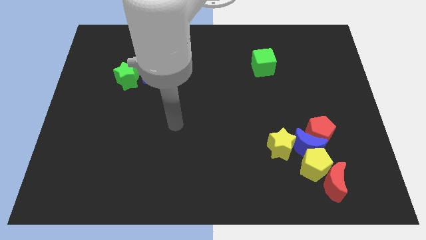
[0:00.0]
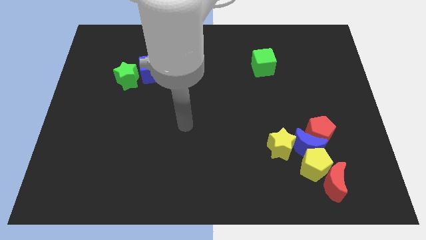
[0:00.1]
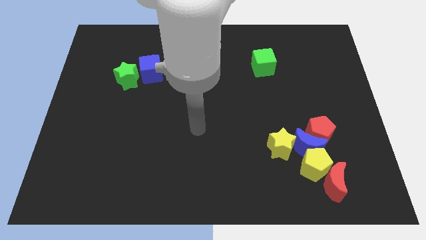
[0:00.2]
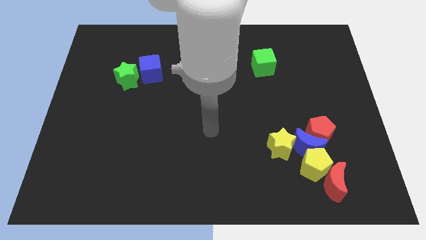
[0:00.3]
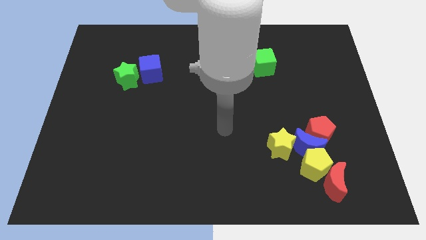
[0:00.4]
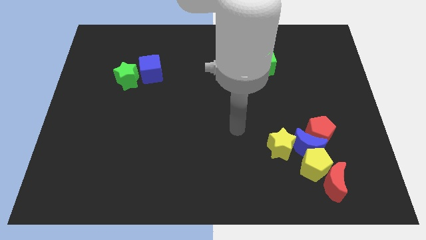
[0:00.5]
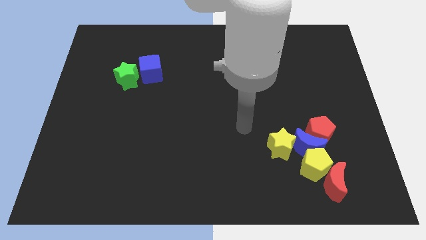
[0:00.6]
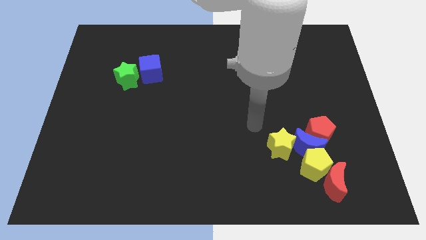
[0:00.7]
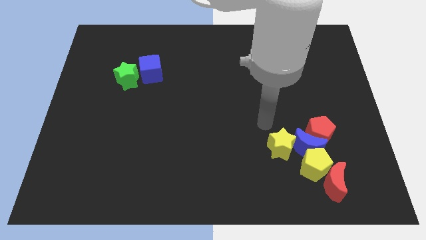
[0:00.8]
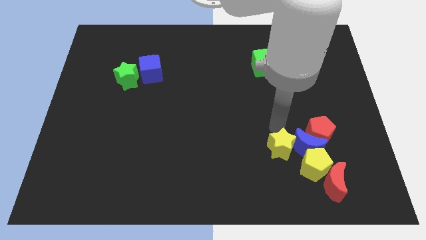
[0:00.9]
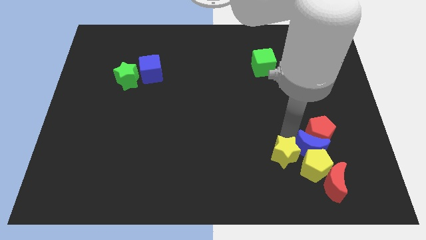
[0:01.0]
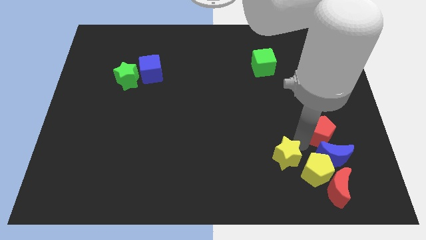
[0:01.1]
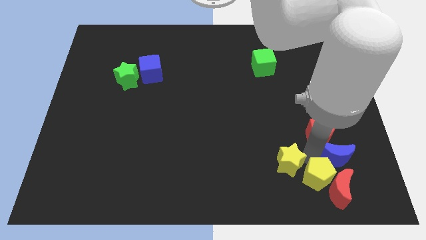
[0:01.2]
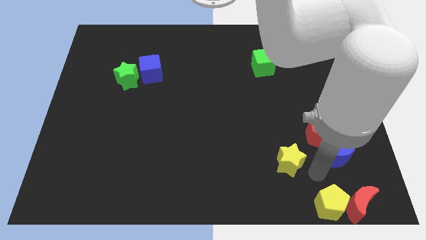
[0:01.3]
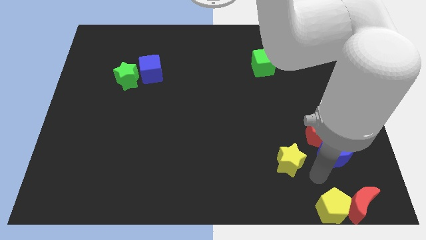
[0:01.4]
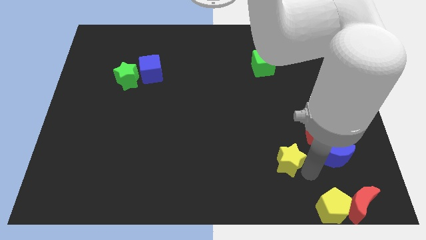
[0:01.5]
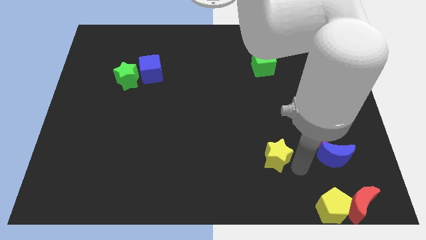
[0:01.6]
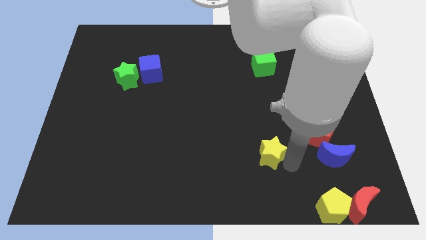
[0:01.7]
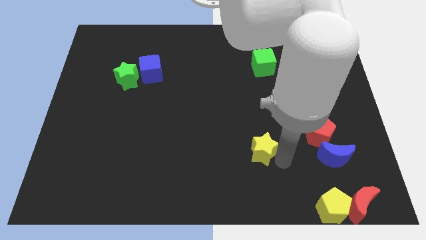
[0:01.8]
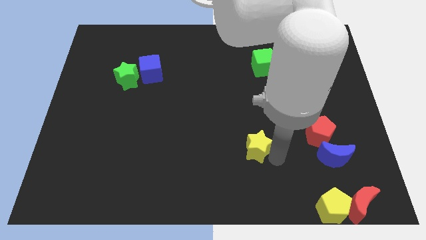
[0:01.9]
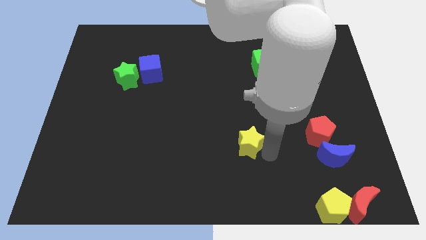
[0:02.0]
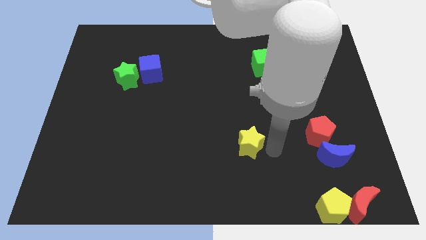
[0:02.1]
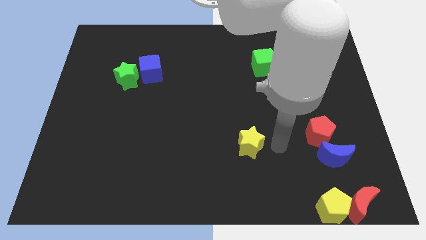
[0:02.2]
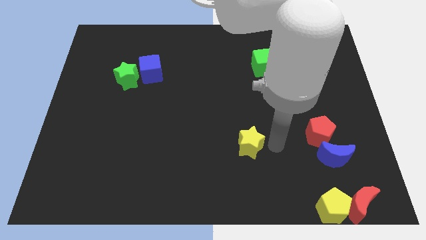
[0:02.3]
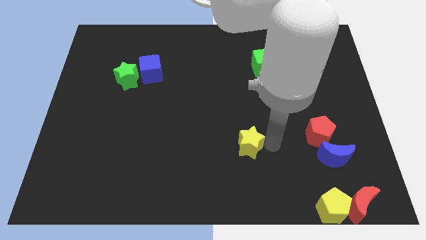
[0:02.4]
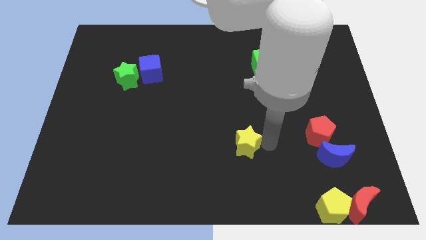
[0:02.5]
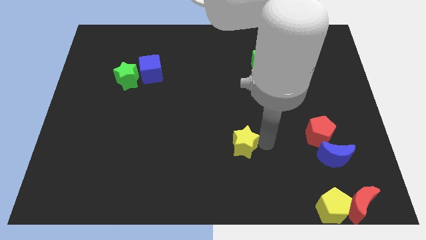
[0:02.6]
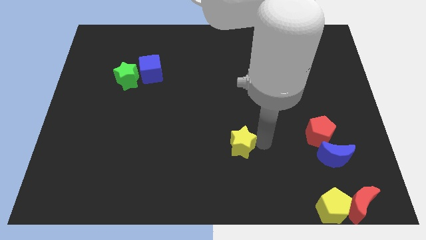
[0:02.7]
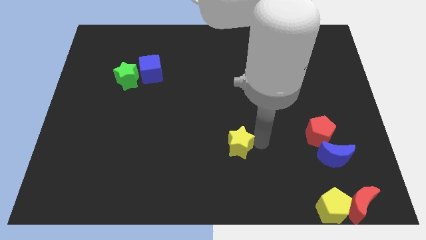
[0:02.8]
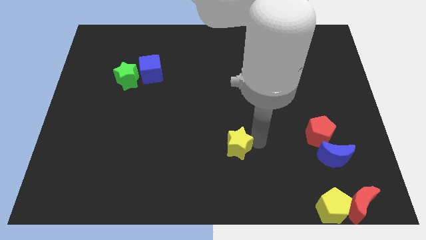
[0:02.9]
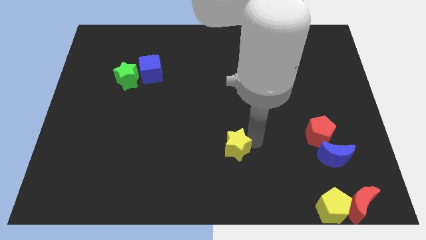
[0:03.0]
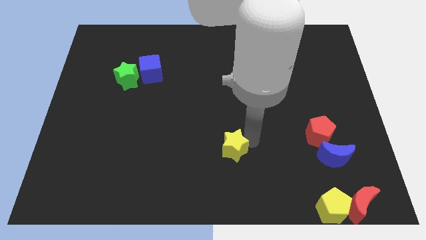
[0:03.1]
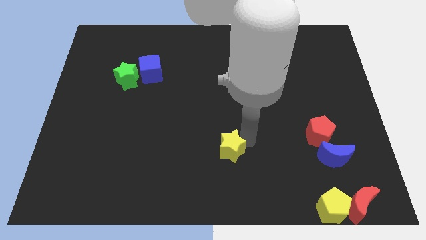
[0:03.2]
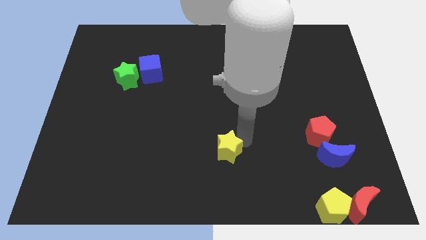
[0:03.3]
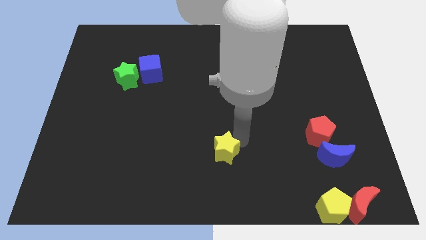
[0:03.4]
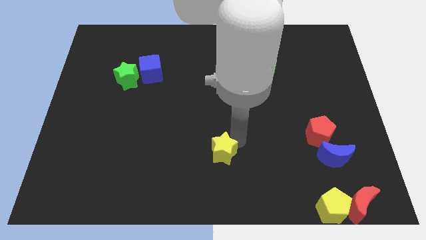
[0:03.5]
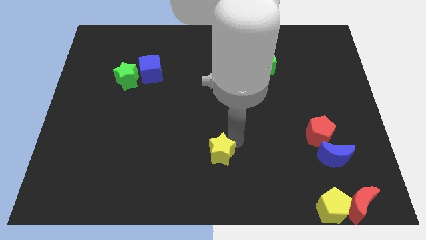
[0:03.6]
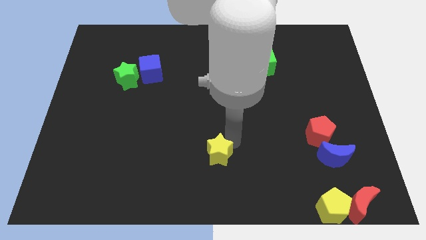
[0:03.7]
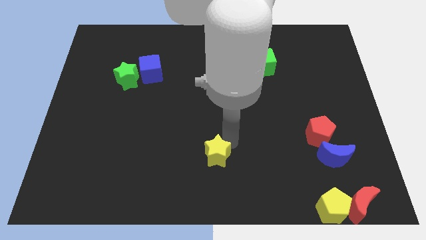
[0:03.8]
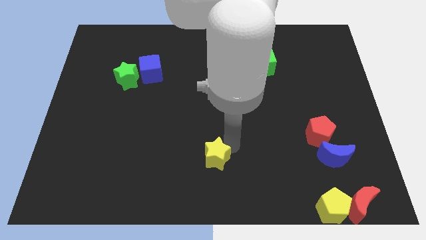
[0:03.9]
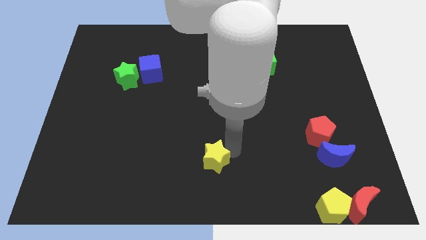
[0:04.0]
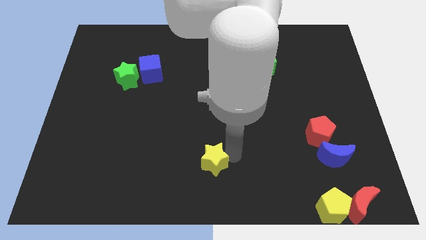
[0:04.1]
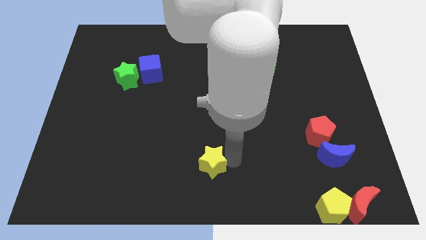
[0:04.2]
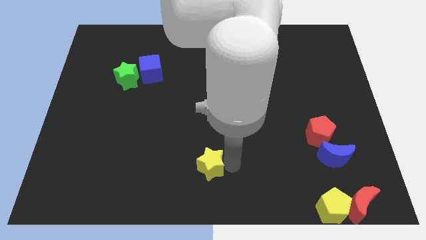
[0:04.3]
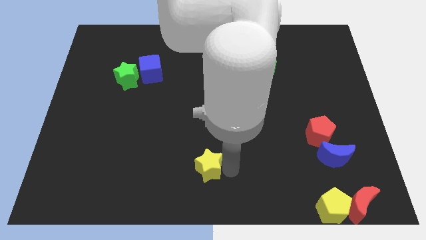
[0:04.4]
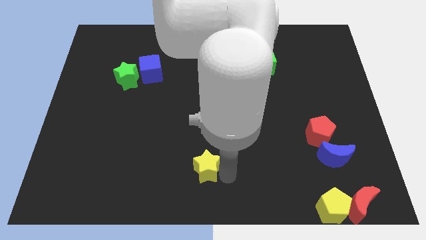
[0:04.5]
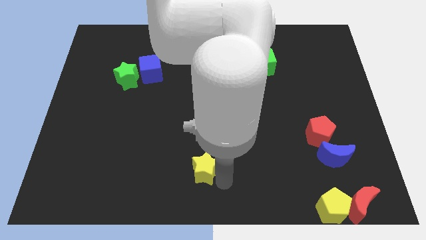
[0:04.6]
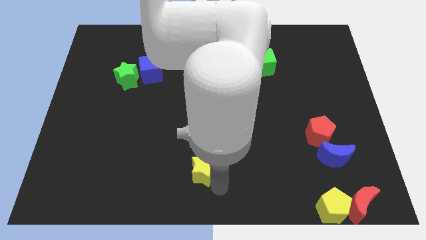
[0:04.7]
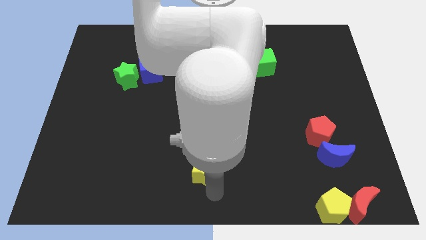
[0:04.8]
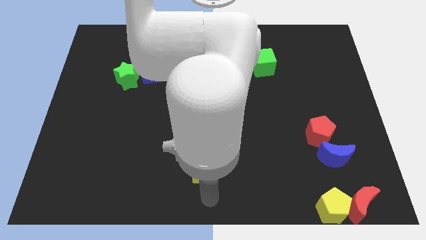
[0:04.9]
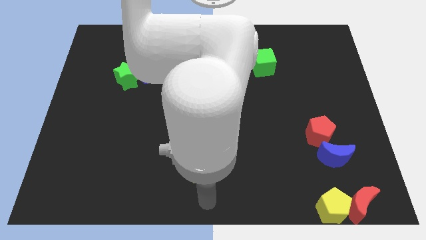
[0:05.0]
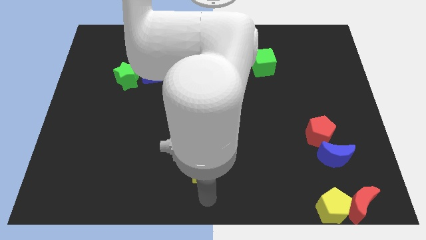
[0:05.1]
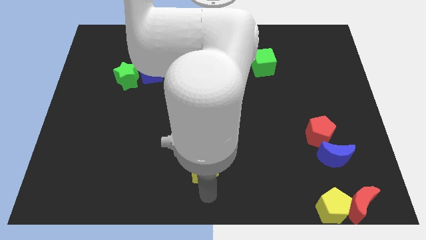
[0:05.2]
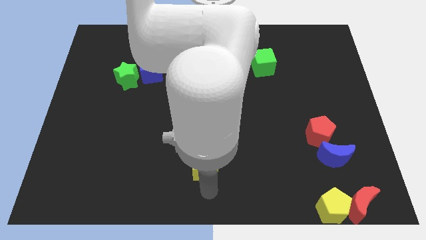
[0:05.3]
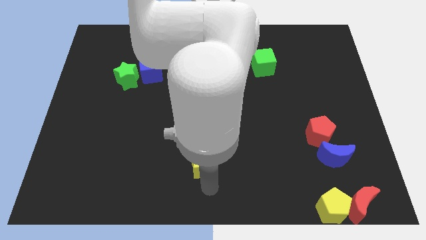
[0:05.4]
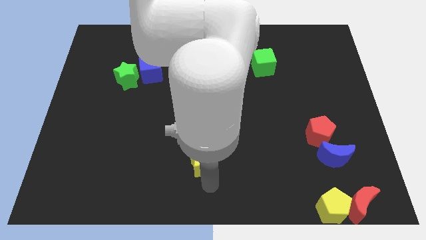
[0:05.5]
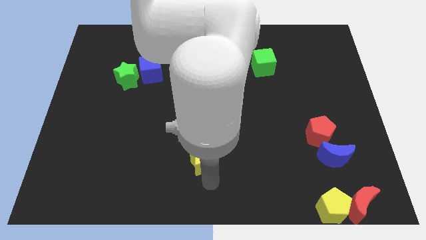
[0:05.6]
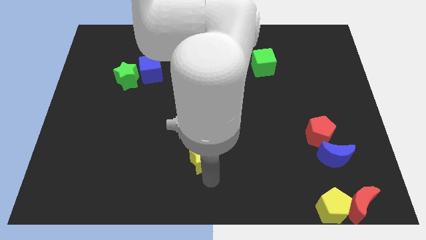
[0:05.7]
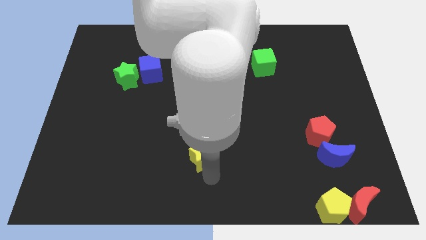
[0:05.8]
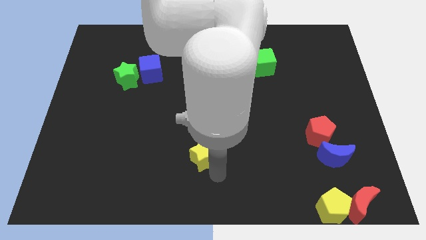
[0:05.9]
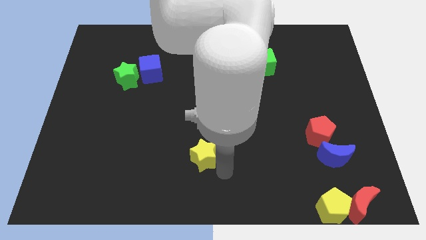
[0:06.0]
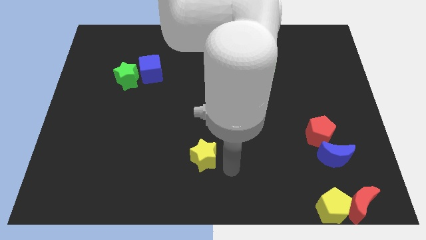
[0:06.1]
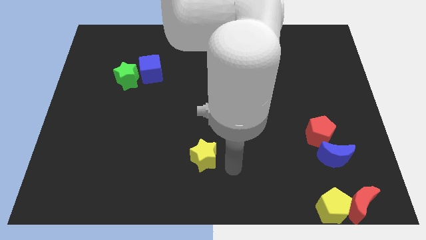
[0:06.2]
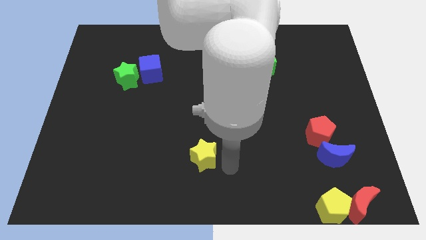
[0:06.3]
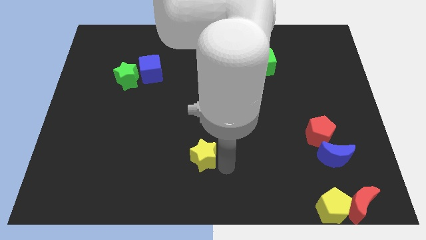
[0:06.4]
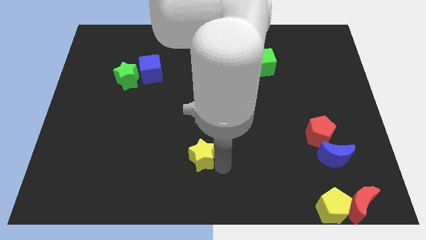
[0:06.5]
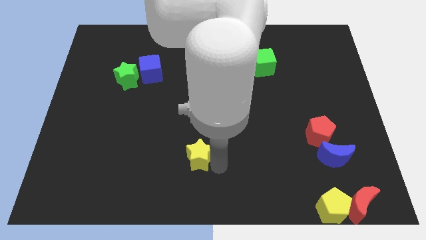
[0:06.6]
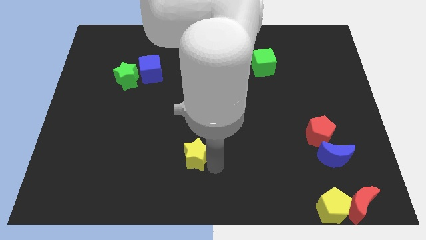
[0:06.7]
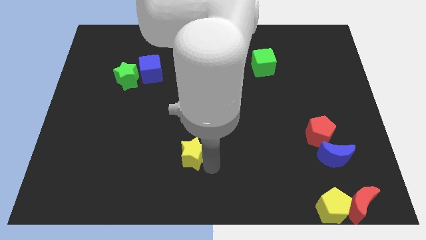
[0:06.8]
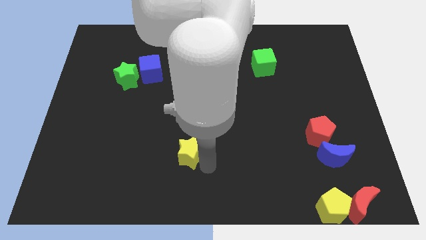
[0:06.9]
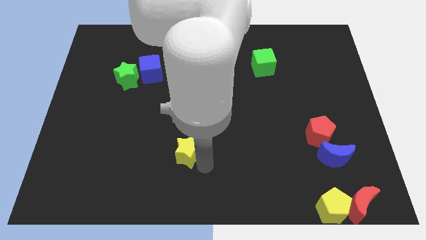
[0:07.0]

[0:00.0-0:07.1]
slide the yellow star left

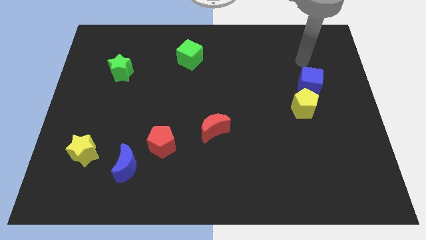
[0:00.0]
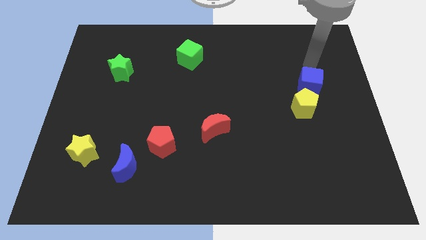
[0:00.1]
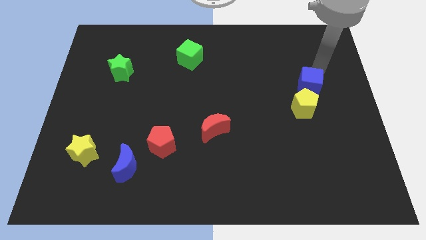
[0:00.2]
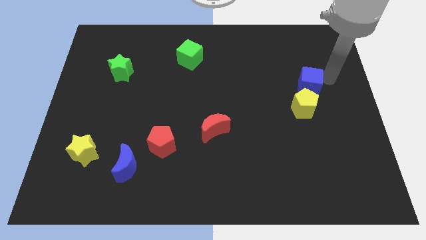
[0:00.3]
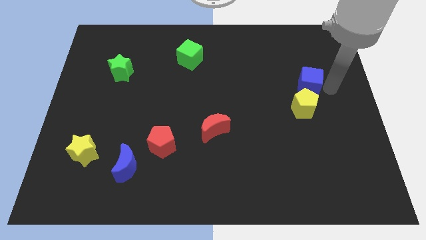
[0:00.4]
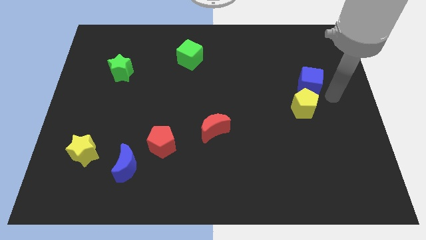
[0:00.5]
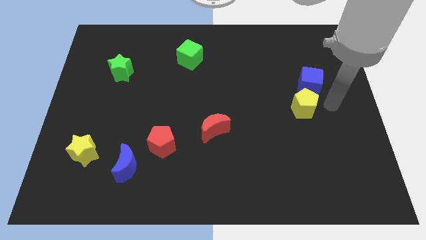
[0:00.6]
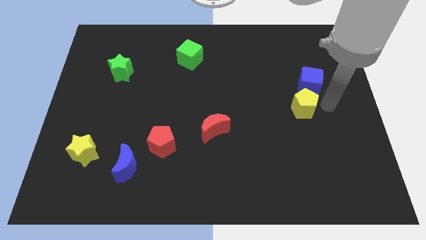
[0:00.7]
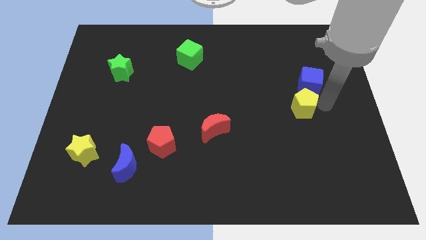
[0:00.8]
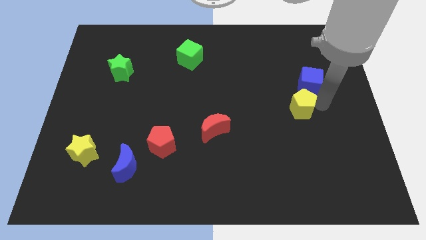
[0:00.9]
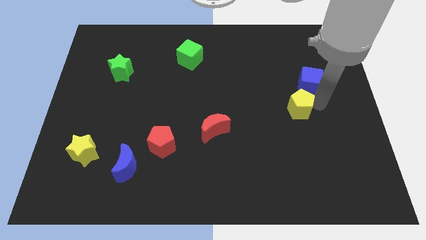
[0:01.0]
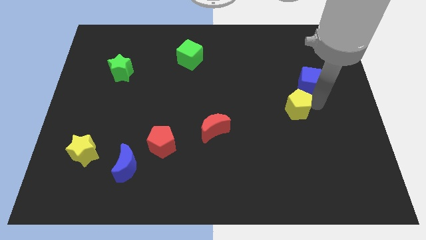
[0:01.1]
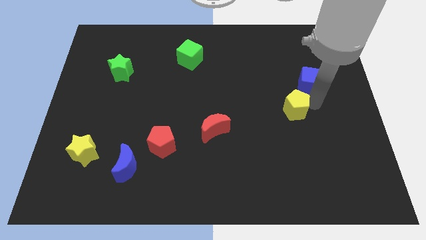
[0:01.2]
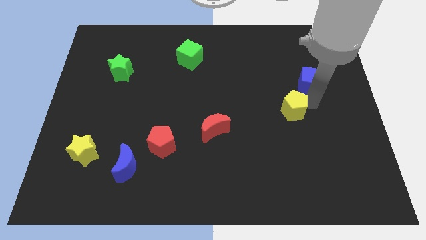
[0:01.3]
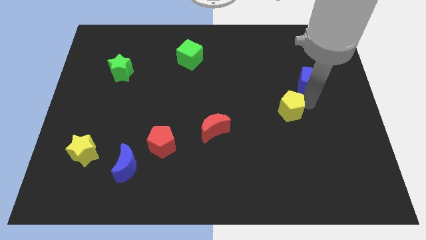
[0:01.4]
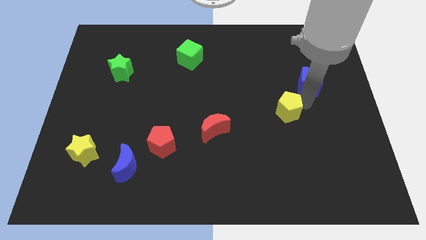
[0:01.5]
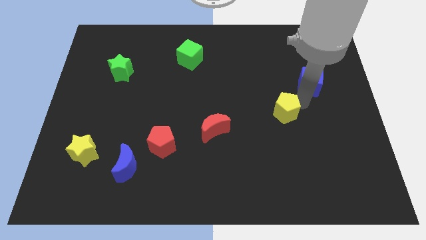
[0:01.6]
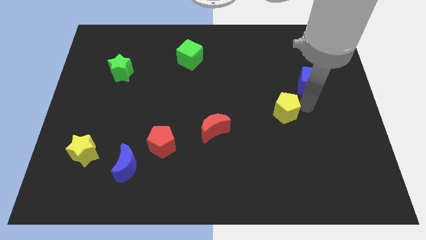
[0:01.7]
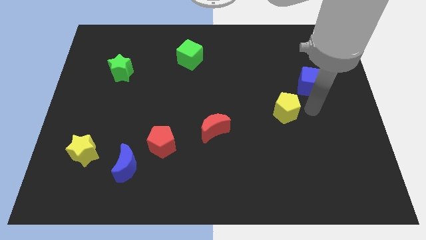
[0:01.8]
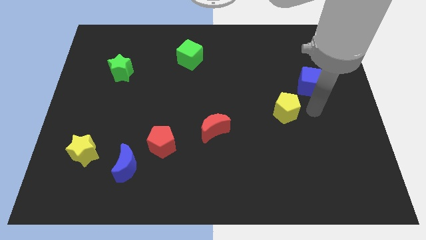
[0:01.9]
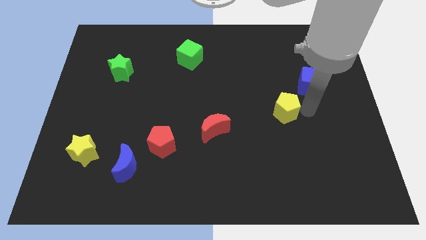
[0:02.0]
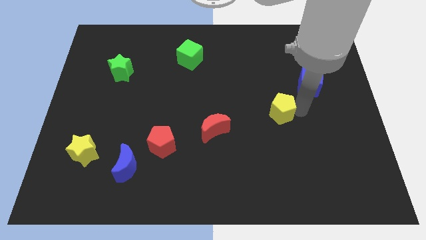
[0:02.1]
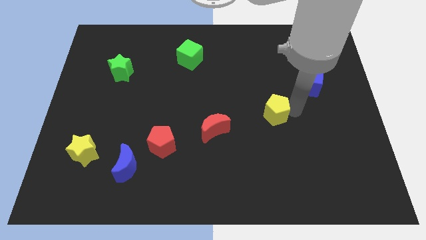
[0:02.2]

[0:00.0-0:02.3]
slightly push the yellow pentagon left
